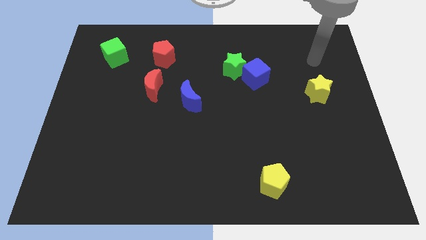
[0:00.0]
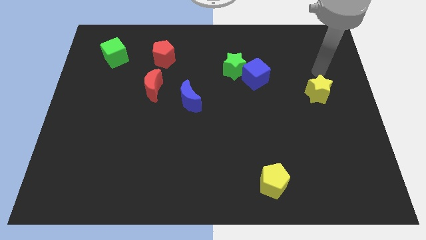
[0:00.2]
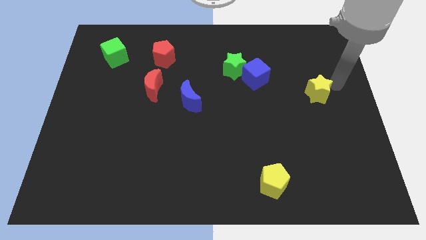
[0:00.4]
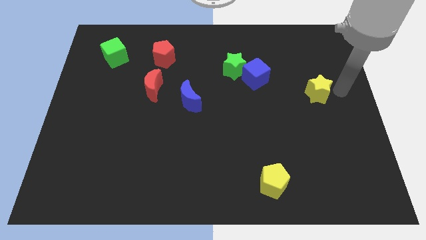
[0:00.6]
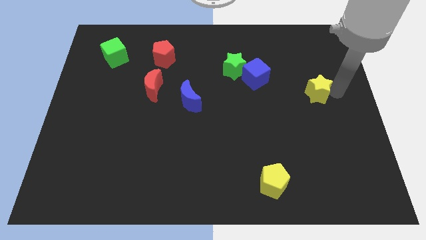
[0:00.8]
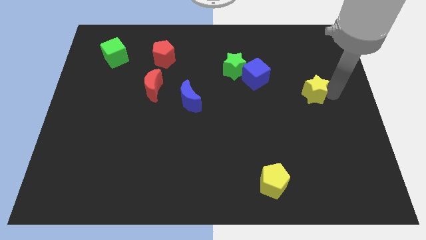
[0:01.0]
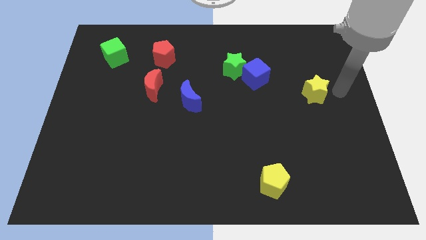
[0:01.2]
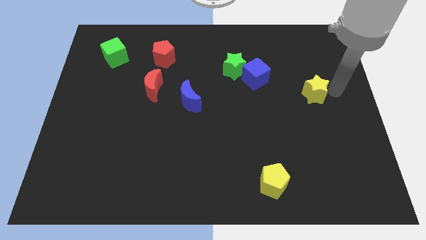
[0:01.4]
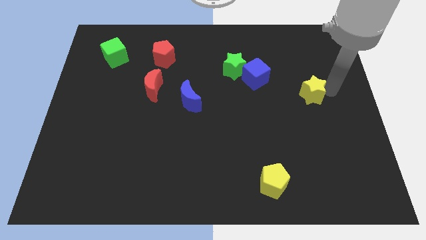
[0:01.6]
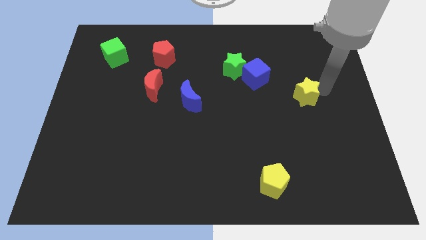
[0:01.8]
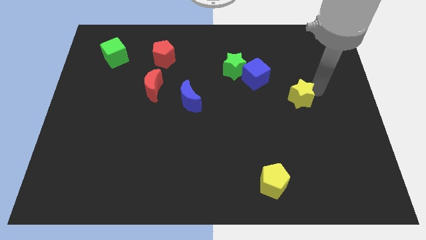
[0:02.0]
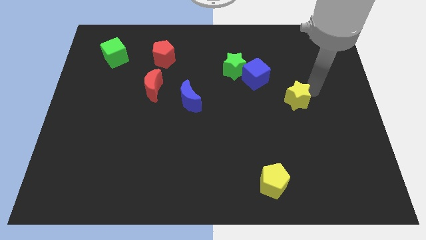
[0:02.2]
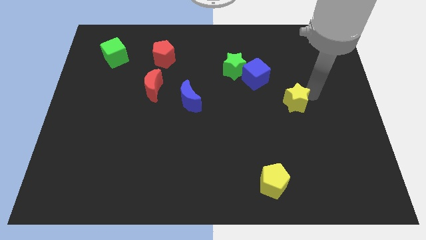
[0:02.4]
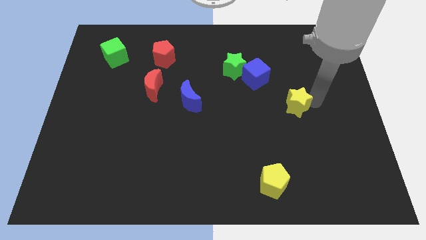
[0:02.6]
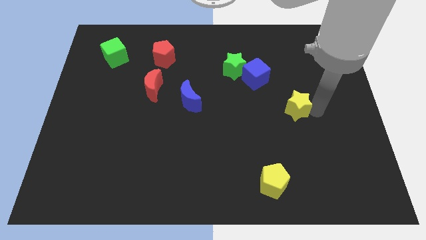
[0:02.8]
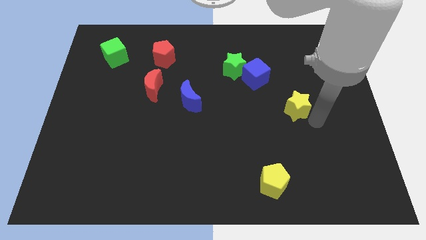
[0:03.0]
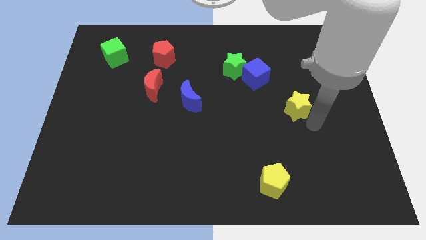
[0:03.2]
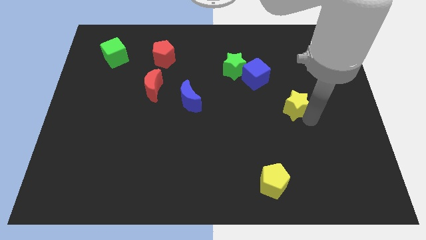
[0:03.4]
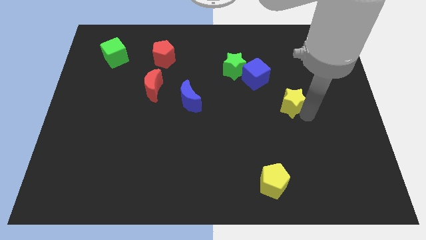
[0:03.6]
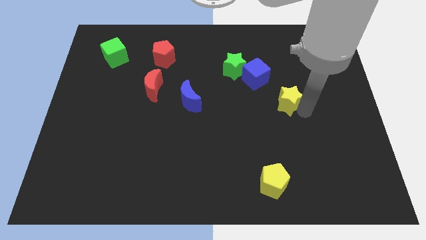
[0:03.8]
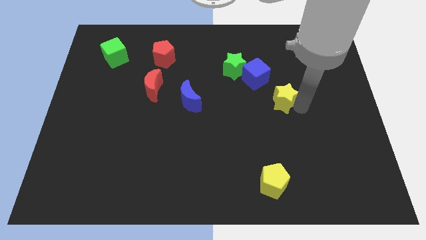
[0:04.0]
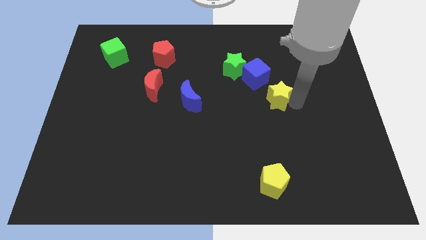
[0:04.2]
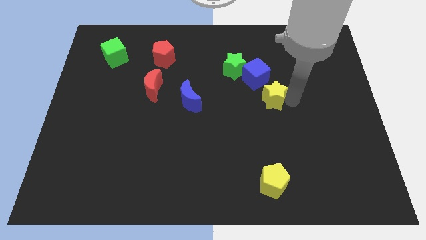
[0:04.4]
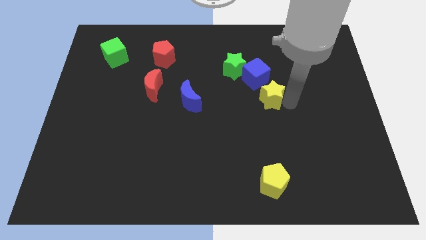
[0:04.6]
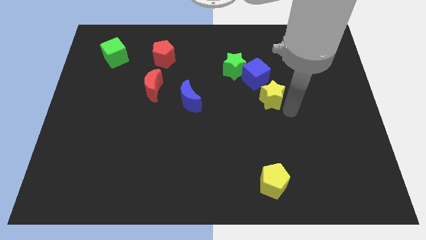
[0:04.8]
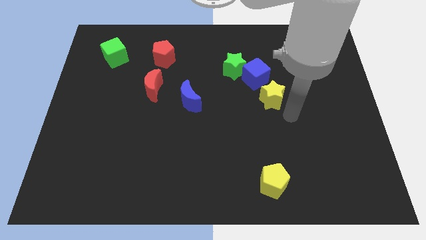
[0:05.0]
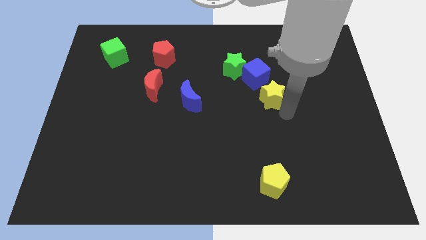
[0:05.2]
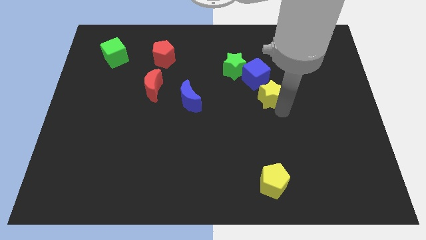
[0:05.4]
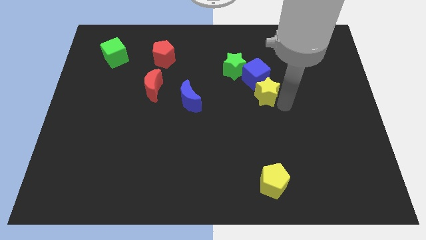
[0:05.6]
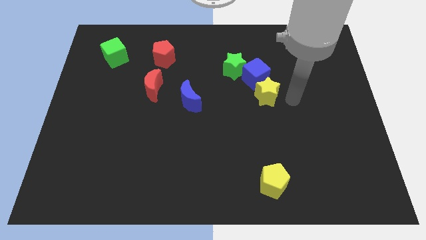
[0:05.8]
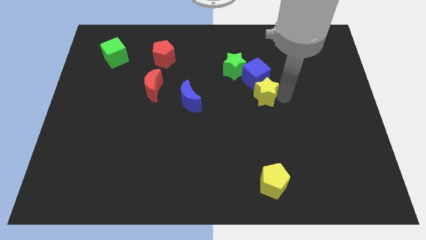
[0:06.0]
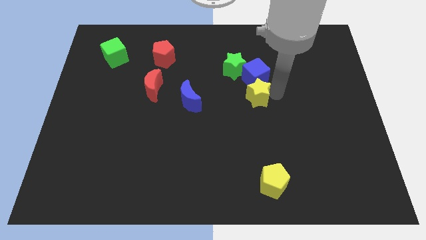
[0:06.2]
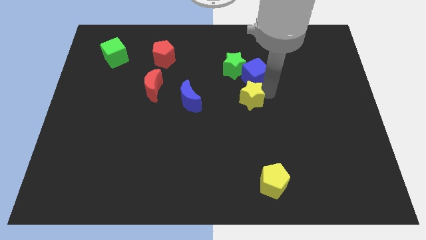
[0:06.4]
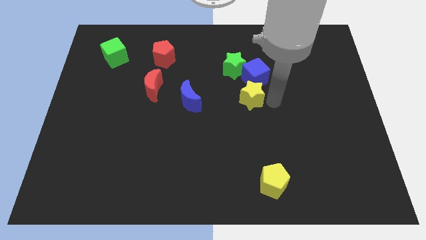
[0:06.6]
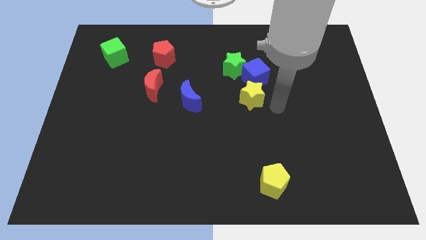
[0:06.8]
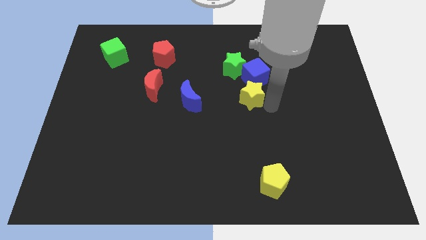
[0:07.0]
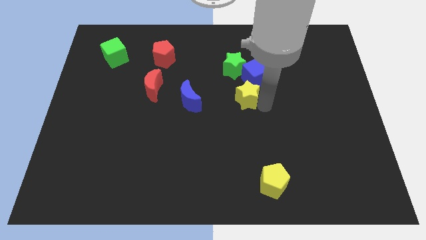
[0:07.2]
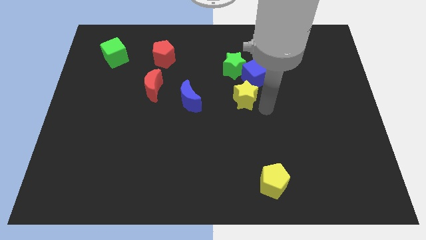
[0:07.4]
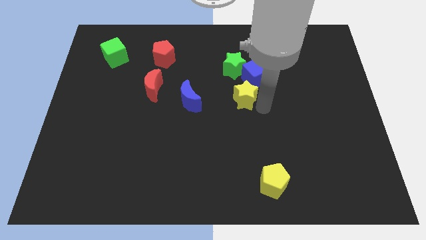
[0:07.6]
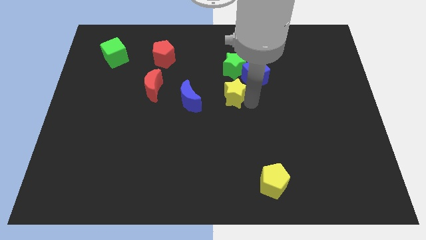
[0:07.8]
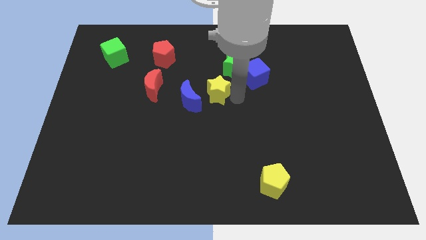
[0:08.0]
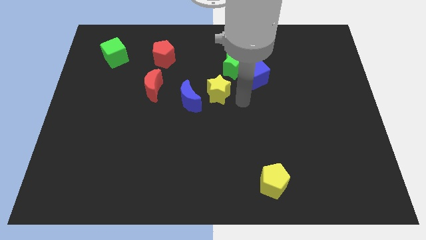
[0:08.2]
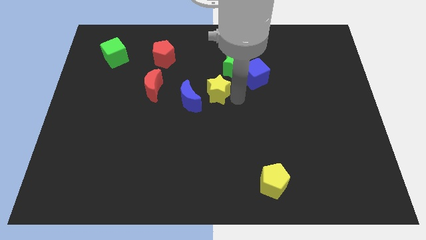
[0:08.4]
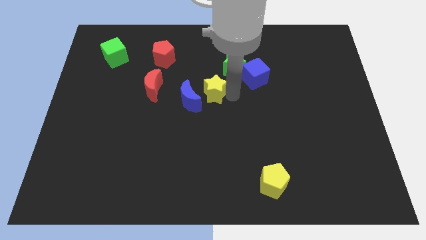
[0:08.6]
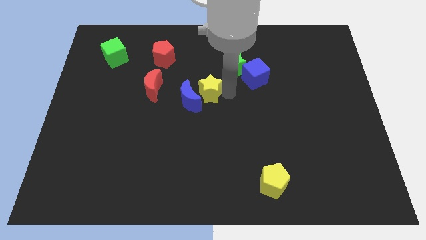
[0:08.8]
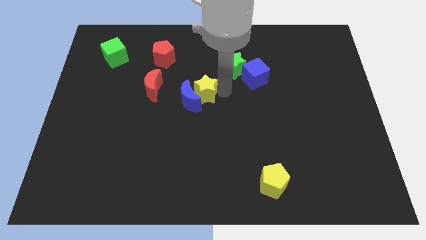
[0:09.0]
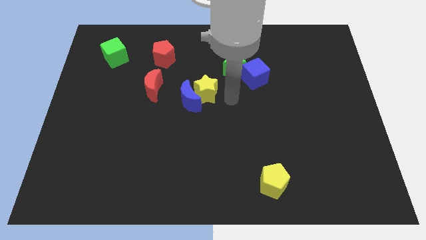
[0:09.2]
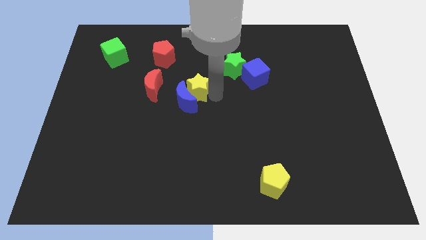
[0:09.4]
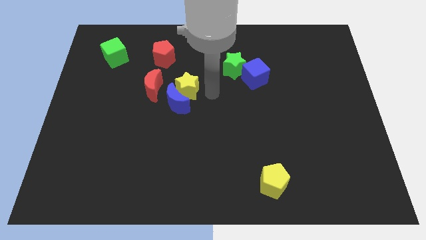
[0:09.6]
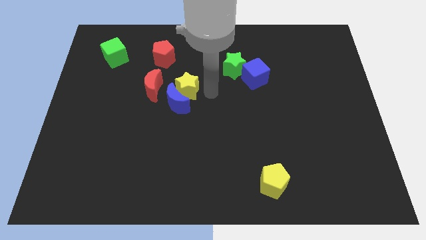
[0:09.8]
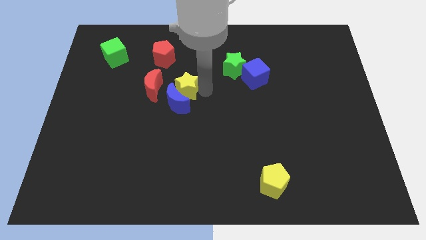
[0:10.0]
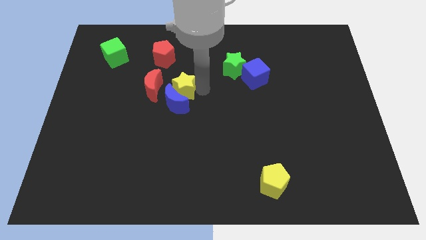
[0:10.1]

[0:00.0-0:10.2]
slide the yellow star to the top left of the blue moon

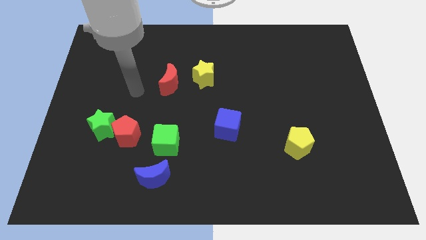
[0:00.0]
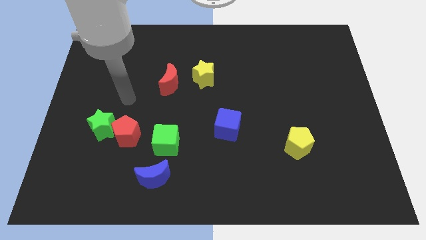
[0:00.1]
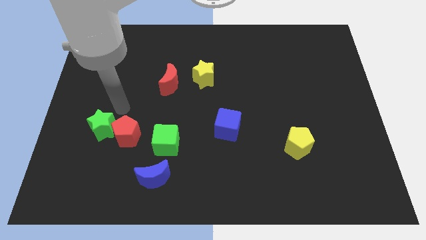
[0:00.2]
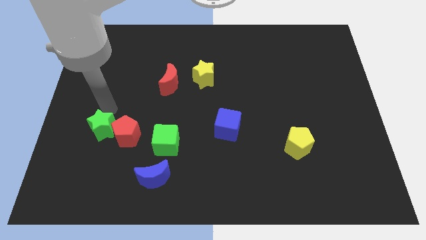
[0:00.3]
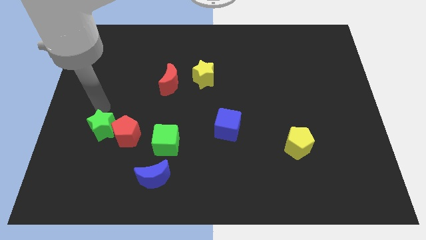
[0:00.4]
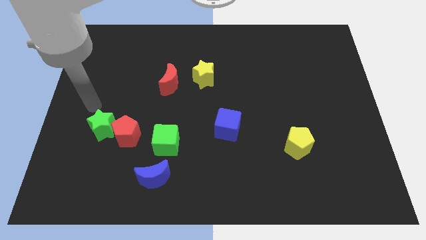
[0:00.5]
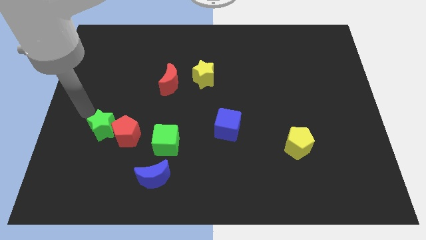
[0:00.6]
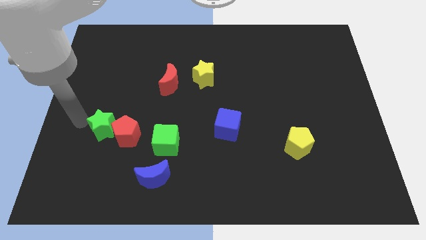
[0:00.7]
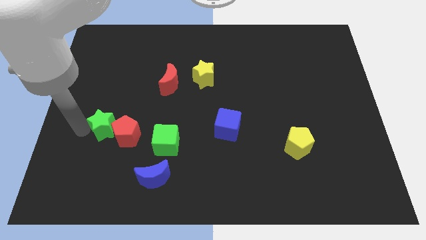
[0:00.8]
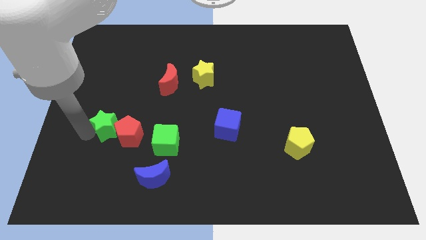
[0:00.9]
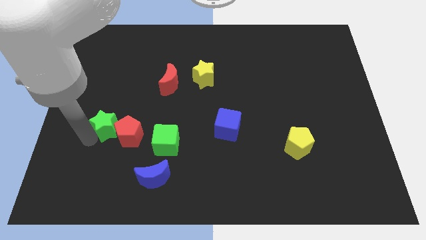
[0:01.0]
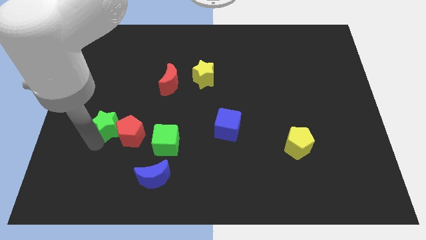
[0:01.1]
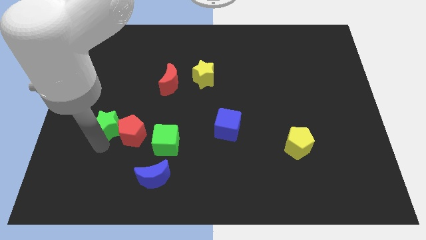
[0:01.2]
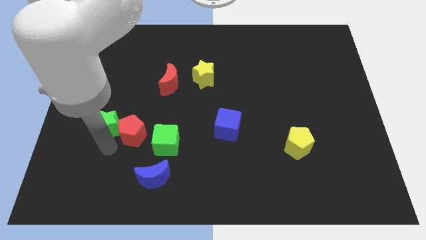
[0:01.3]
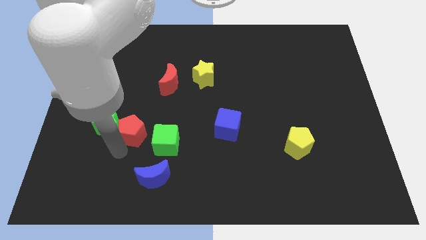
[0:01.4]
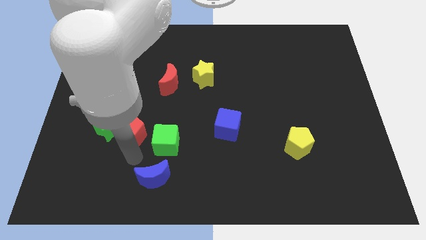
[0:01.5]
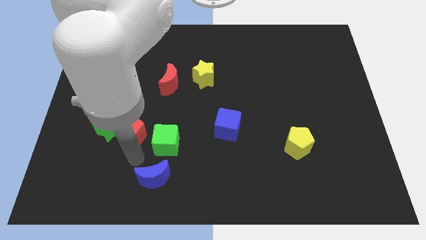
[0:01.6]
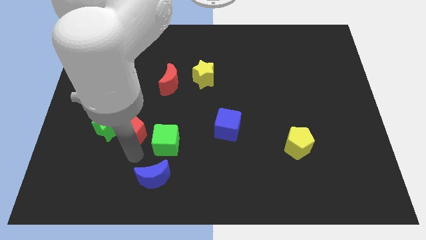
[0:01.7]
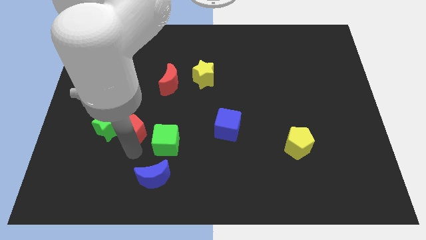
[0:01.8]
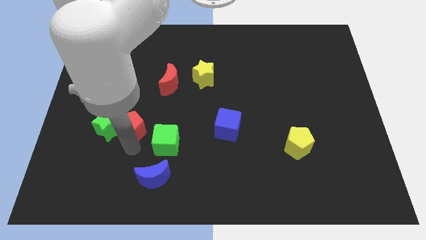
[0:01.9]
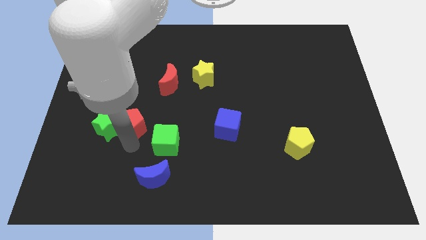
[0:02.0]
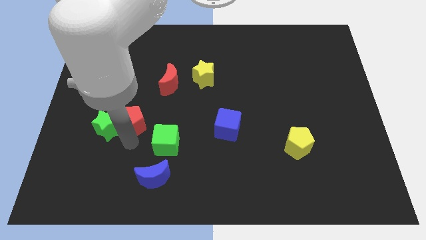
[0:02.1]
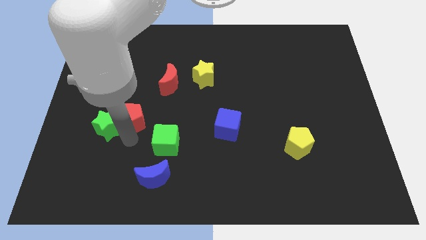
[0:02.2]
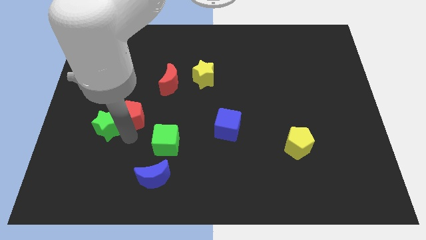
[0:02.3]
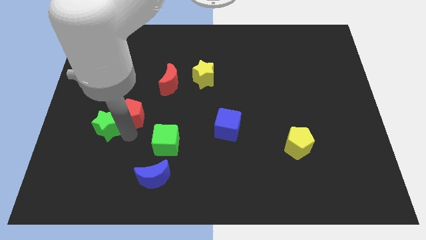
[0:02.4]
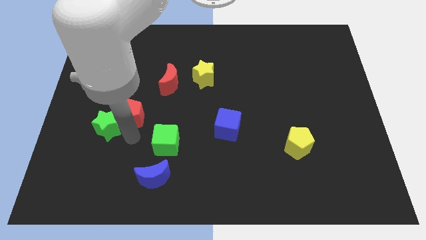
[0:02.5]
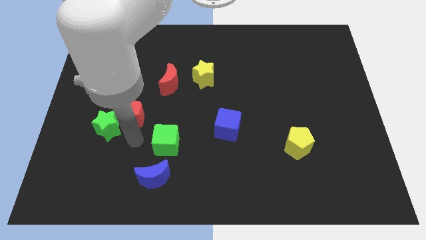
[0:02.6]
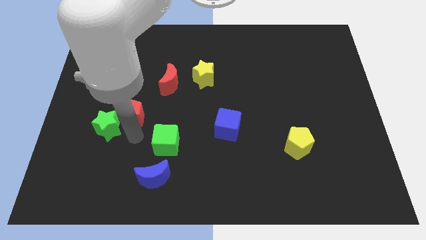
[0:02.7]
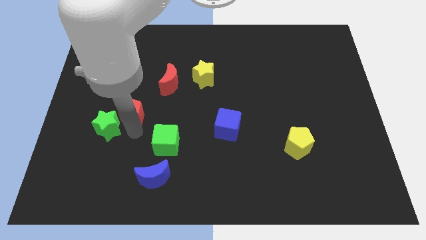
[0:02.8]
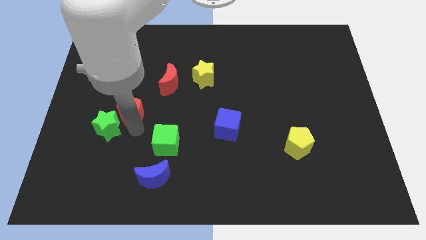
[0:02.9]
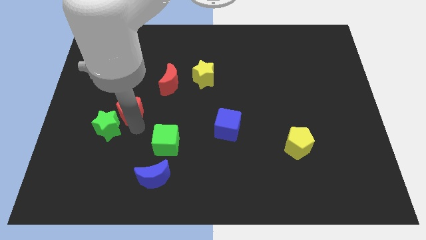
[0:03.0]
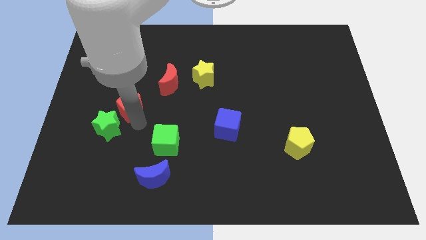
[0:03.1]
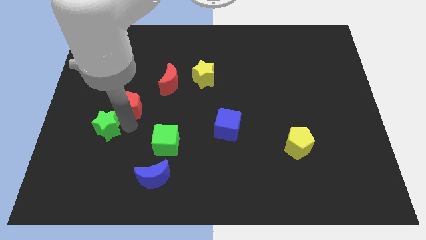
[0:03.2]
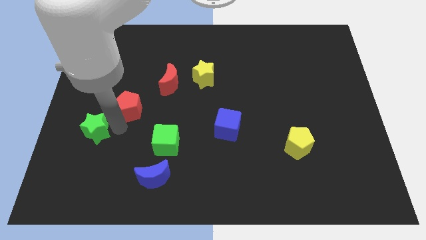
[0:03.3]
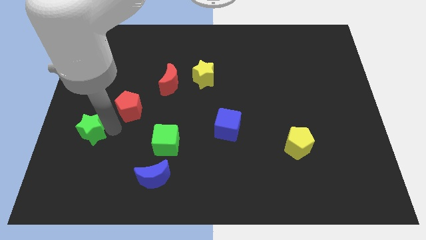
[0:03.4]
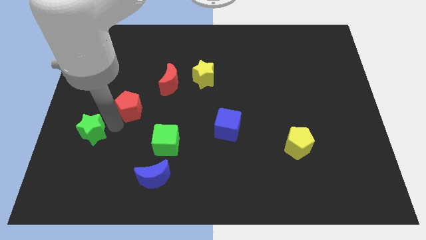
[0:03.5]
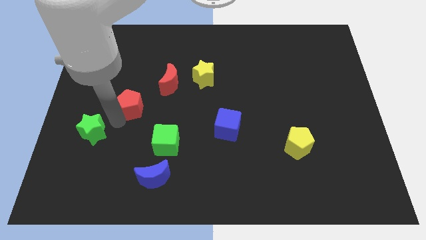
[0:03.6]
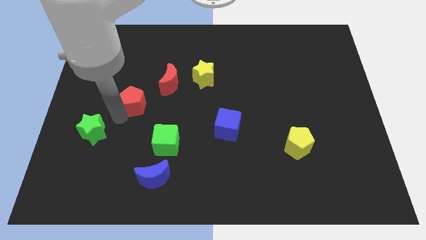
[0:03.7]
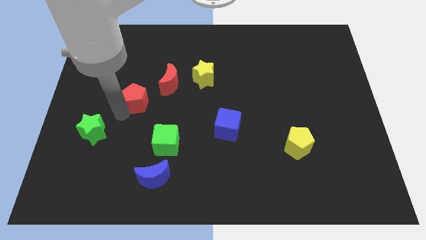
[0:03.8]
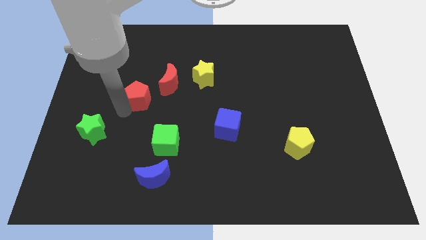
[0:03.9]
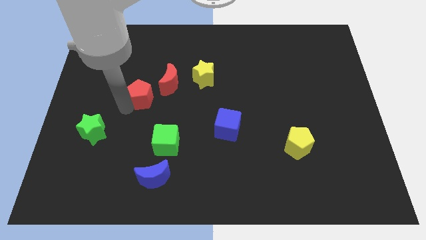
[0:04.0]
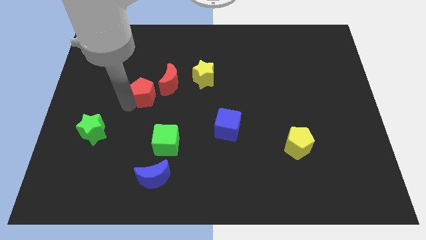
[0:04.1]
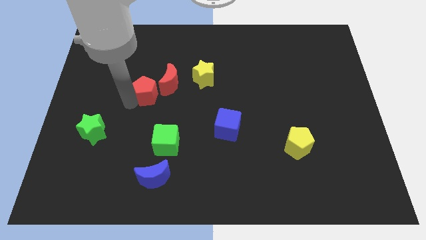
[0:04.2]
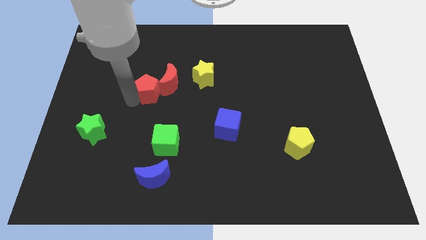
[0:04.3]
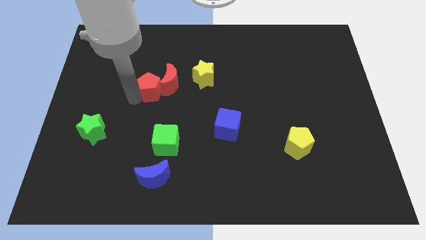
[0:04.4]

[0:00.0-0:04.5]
push the red pentagon to the left of the yellow star
